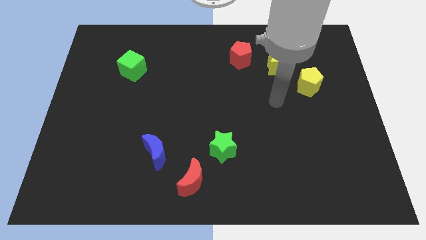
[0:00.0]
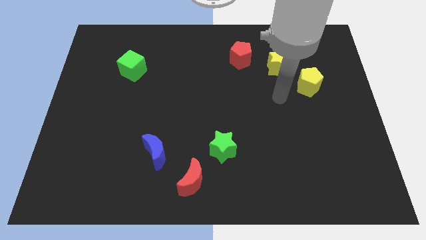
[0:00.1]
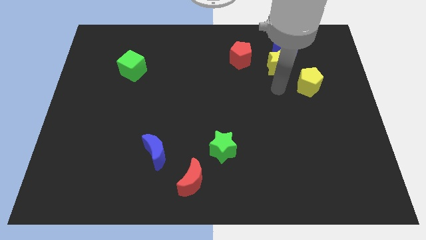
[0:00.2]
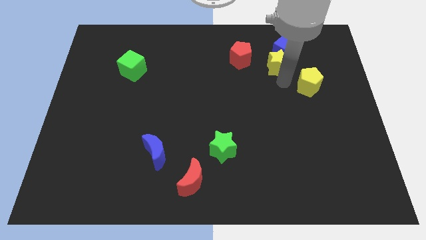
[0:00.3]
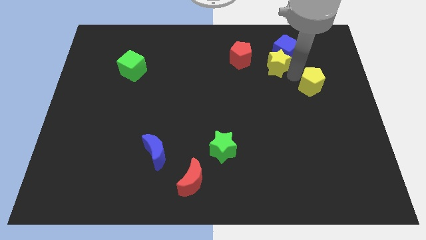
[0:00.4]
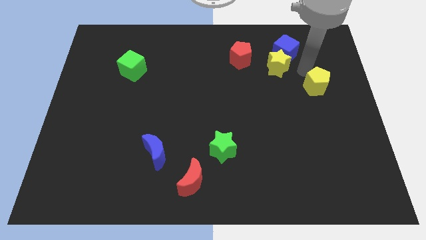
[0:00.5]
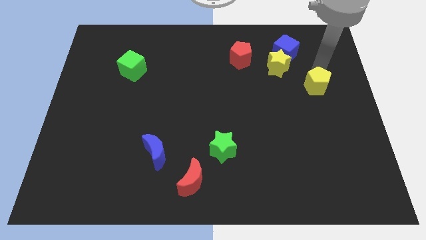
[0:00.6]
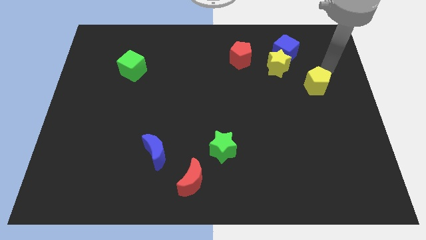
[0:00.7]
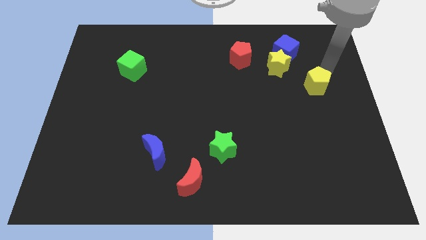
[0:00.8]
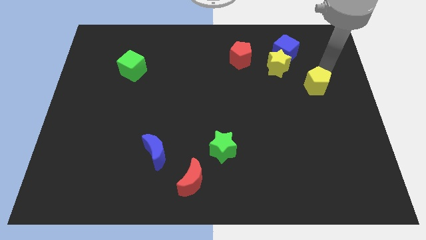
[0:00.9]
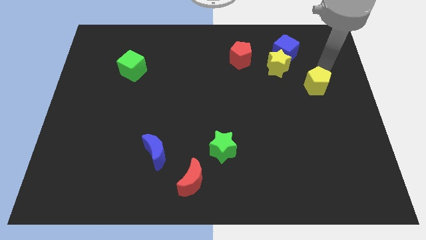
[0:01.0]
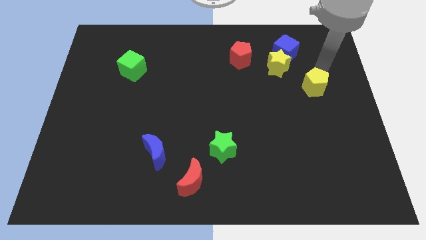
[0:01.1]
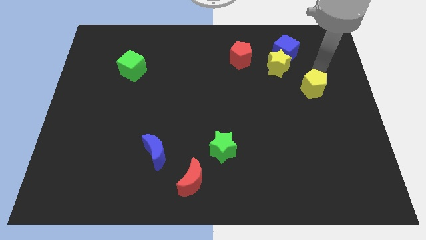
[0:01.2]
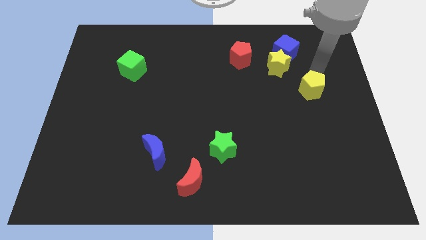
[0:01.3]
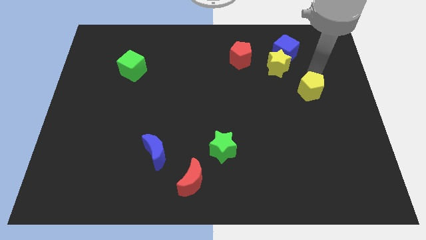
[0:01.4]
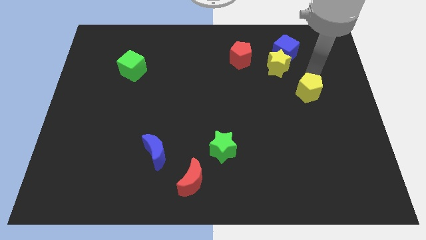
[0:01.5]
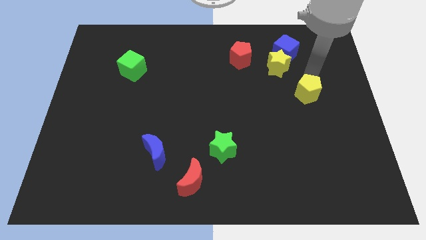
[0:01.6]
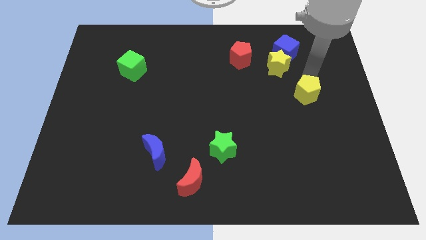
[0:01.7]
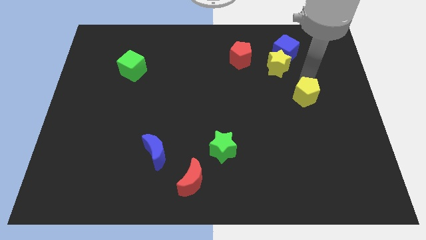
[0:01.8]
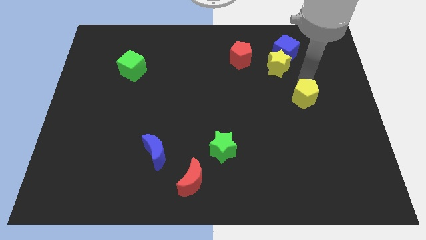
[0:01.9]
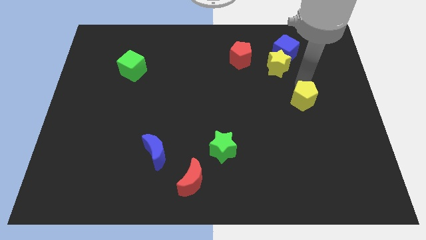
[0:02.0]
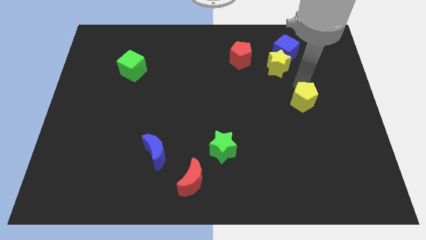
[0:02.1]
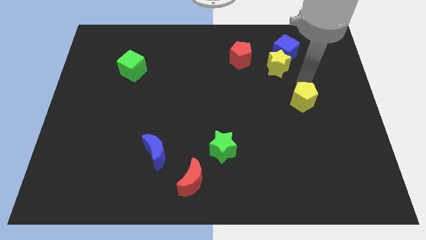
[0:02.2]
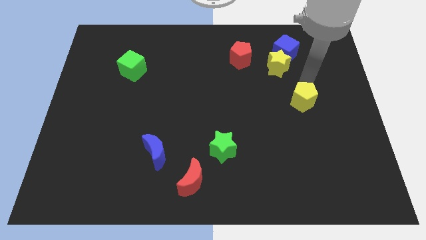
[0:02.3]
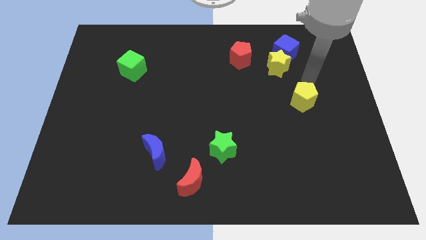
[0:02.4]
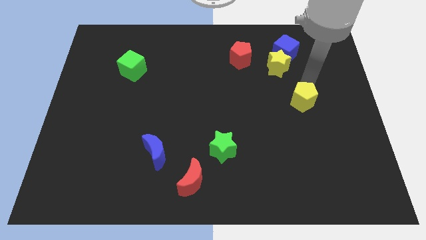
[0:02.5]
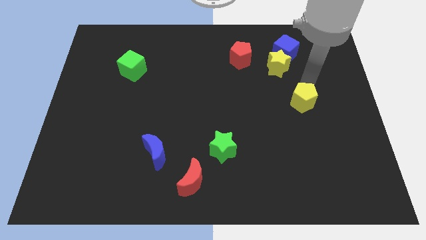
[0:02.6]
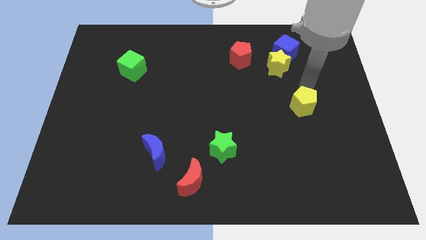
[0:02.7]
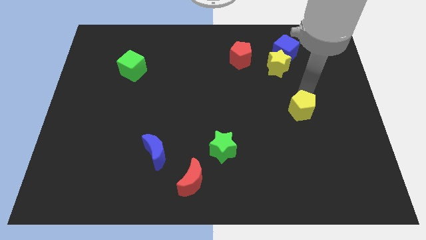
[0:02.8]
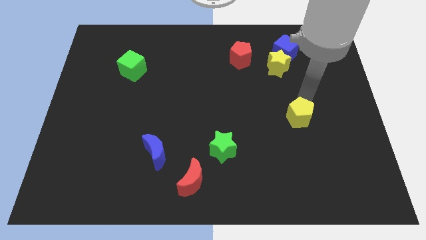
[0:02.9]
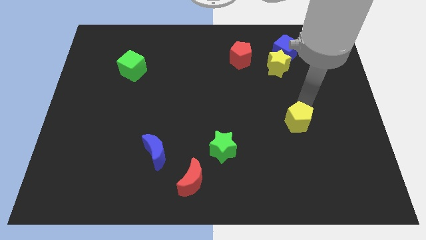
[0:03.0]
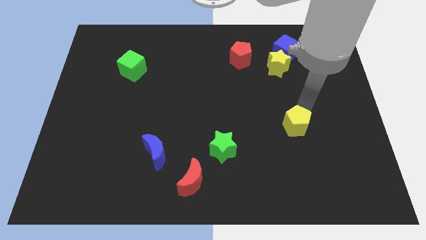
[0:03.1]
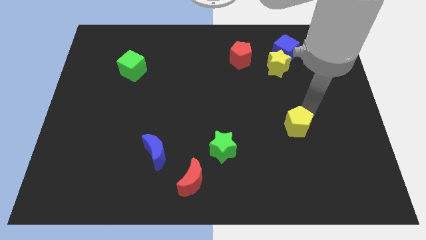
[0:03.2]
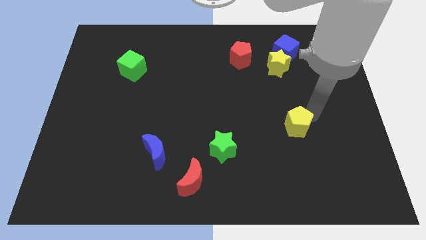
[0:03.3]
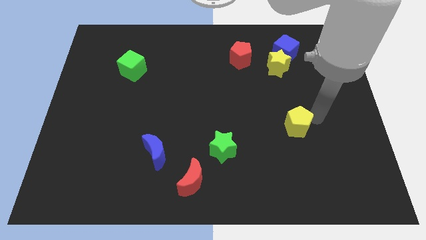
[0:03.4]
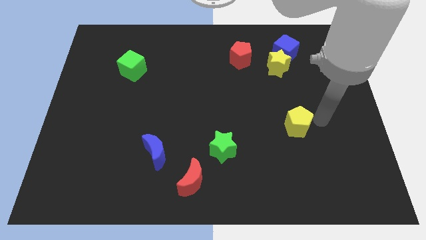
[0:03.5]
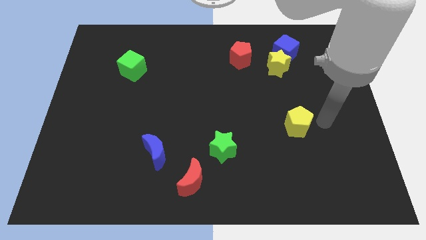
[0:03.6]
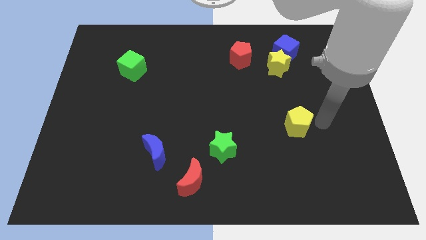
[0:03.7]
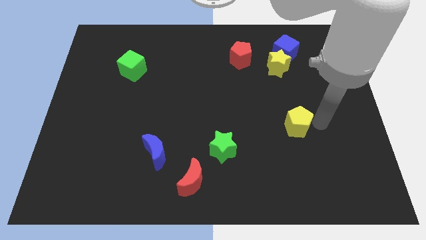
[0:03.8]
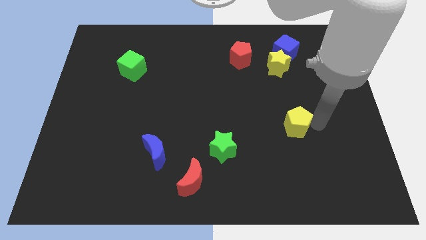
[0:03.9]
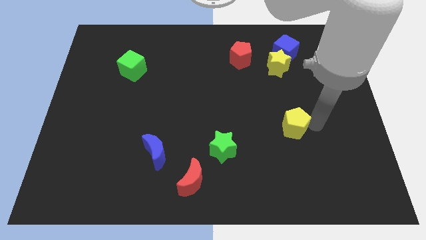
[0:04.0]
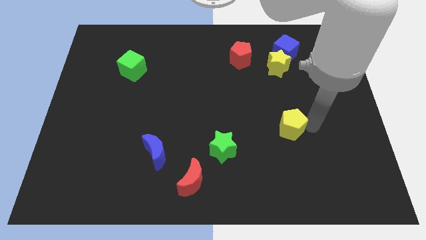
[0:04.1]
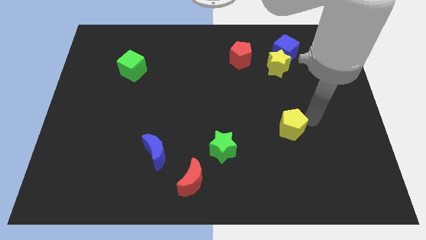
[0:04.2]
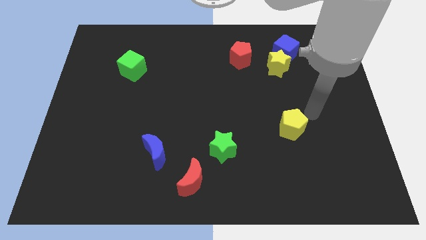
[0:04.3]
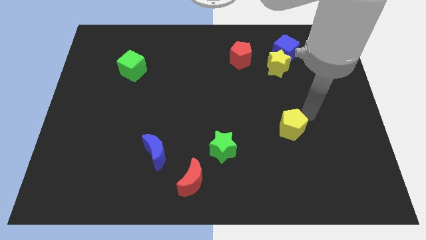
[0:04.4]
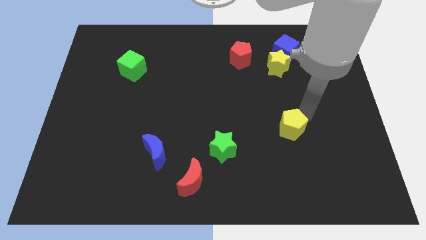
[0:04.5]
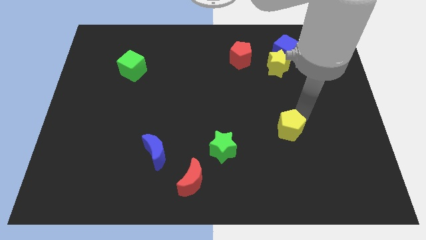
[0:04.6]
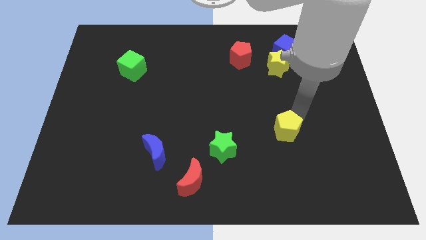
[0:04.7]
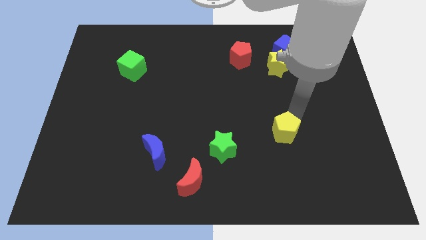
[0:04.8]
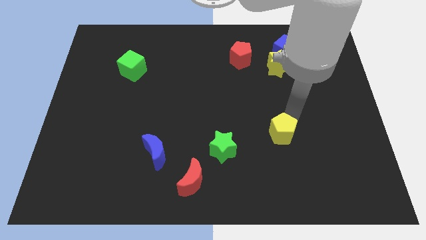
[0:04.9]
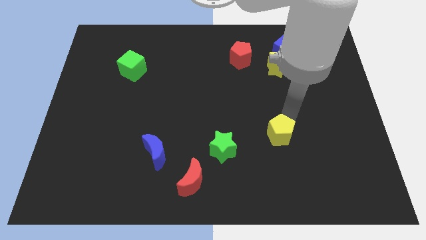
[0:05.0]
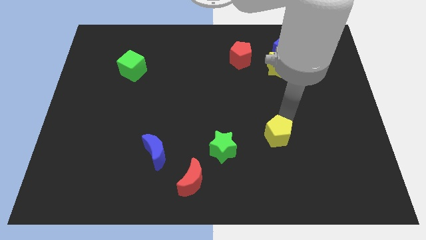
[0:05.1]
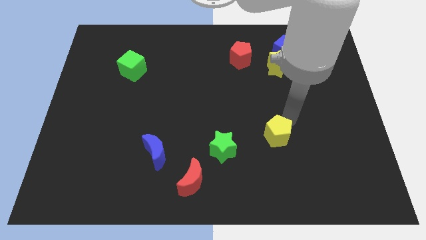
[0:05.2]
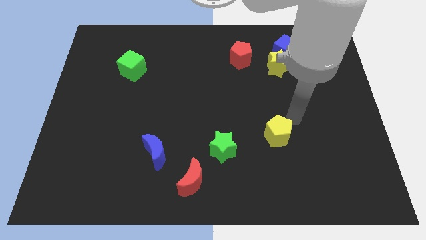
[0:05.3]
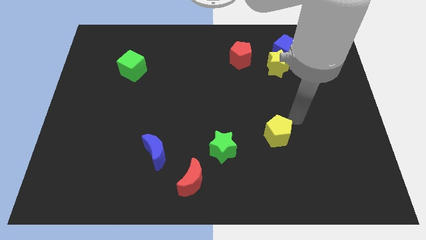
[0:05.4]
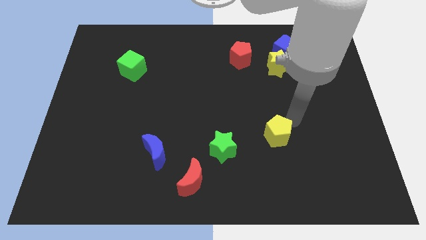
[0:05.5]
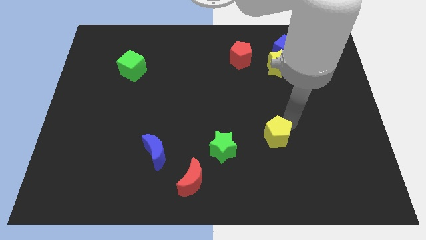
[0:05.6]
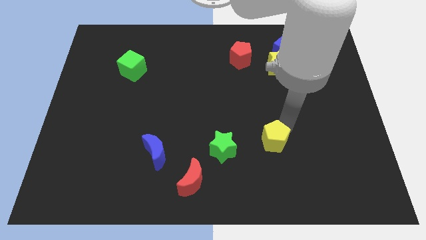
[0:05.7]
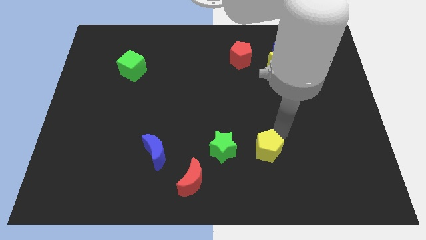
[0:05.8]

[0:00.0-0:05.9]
move the yellow pentagon downwards and then left

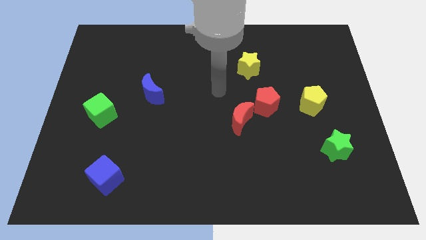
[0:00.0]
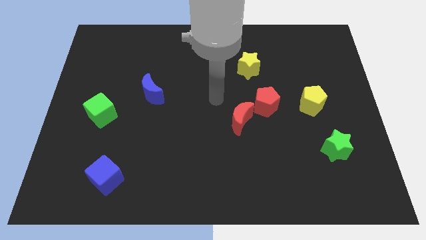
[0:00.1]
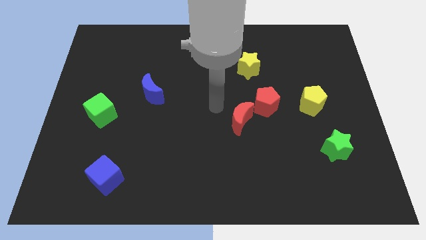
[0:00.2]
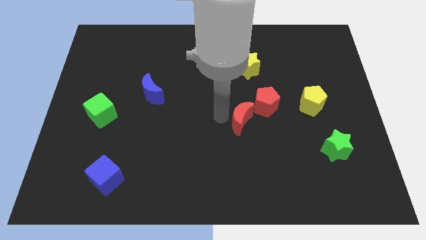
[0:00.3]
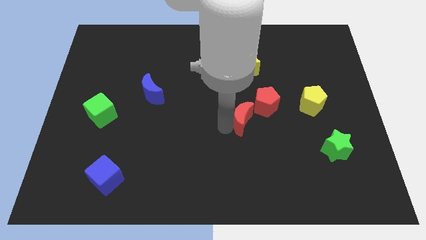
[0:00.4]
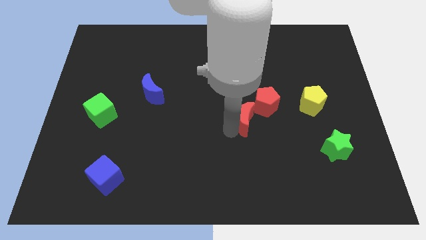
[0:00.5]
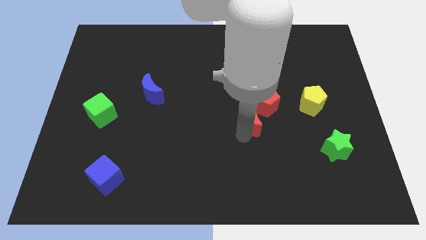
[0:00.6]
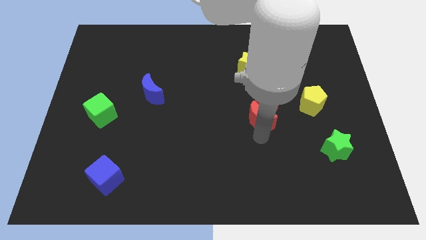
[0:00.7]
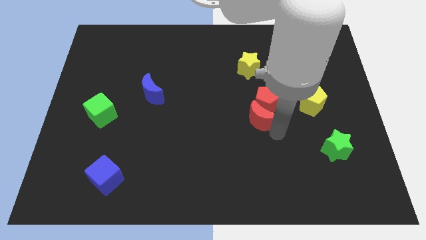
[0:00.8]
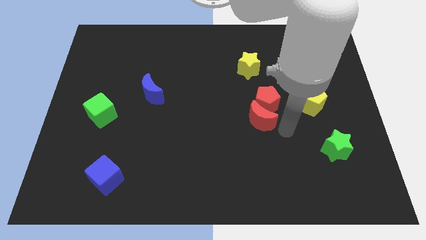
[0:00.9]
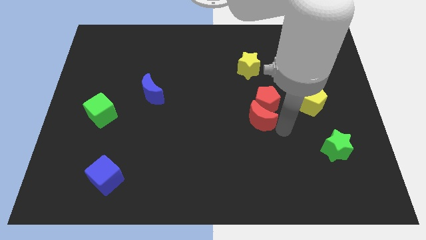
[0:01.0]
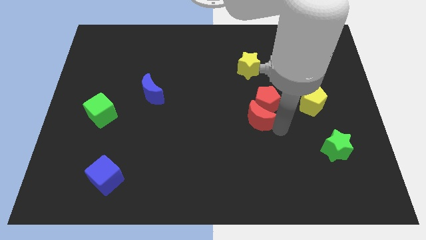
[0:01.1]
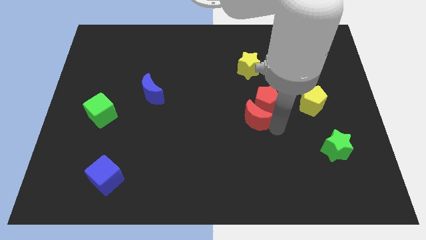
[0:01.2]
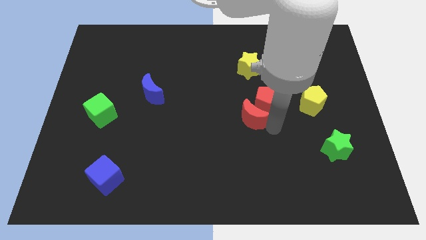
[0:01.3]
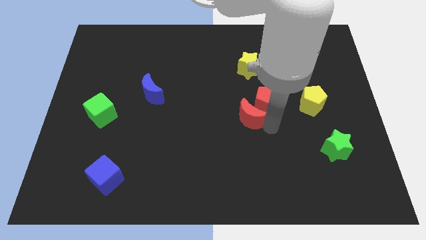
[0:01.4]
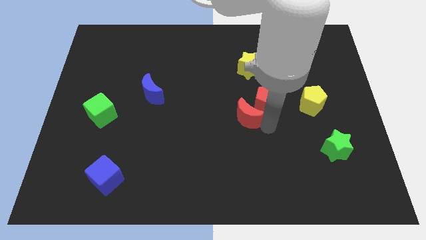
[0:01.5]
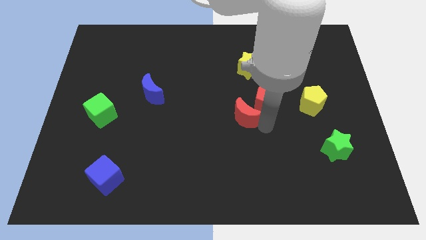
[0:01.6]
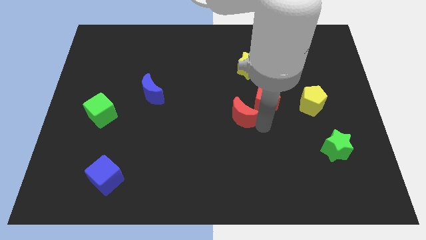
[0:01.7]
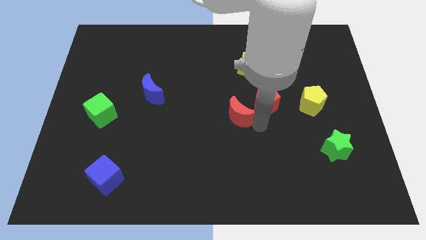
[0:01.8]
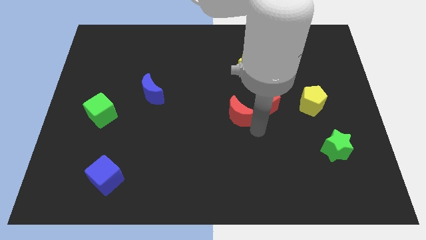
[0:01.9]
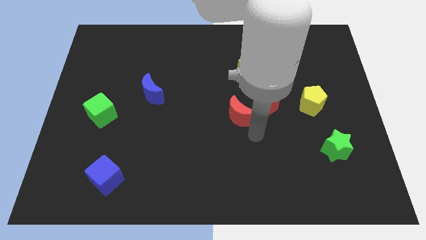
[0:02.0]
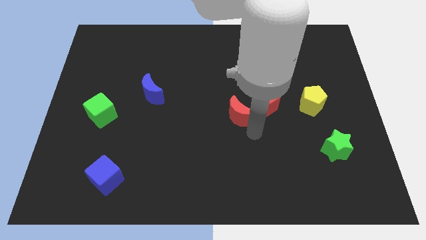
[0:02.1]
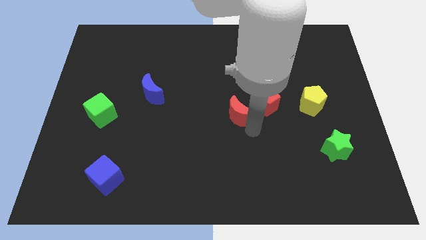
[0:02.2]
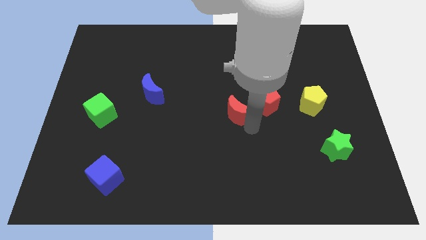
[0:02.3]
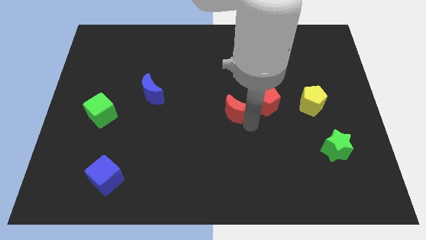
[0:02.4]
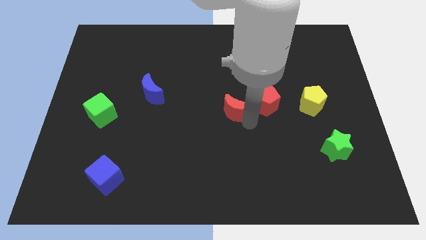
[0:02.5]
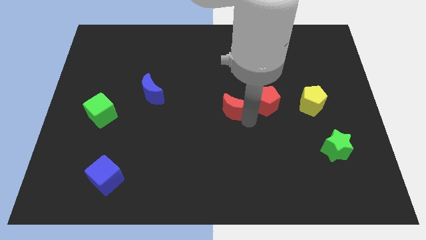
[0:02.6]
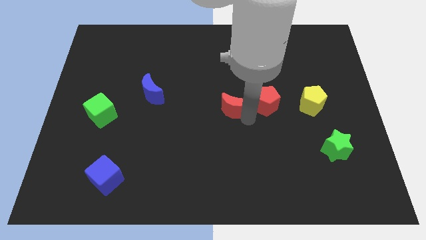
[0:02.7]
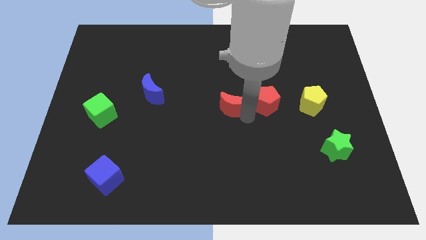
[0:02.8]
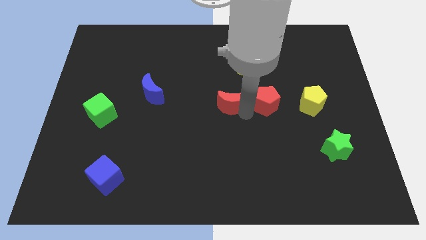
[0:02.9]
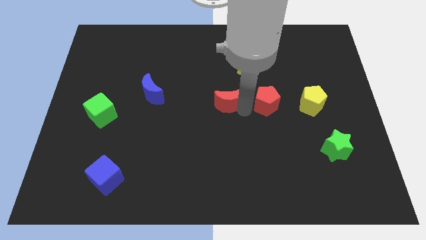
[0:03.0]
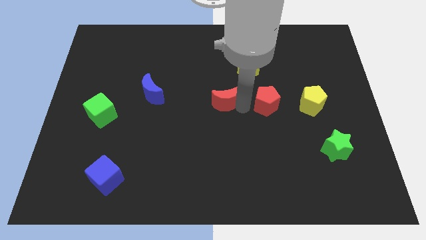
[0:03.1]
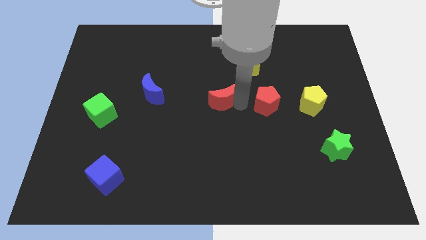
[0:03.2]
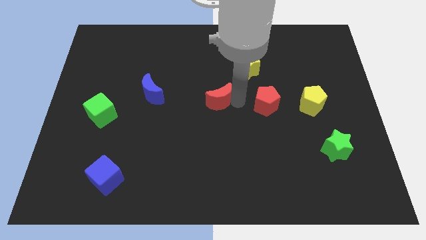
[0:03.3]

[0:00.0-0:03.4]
push the red moon a bit up and to the left diagonally
